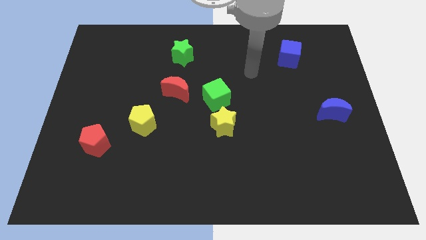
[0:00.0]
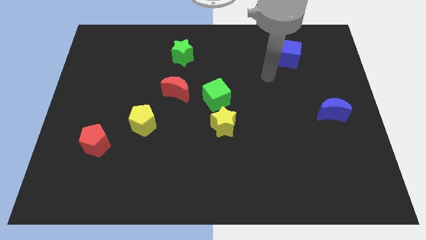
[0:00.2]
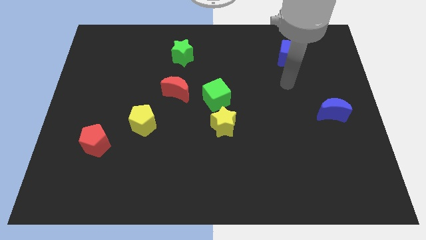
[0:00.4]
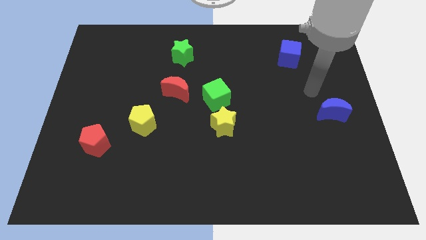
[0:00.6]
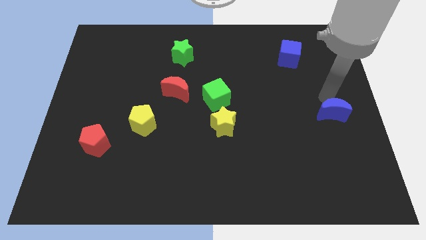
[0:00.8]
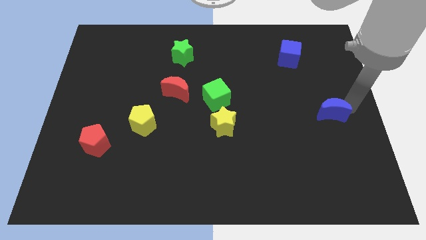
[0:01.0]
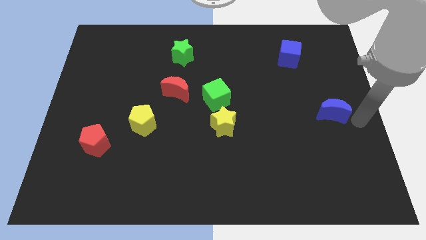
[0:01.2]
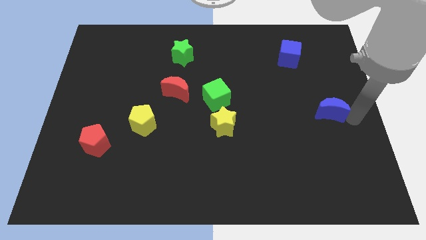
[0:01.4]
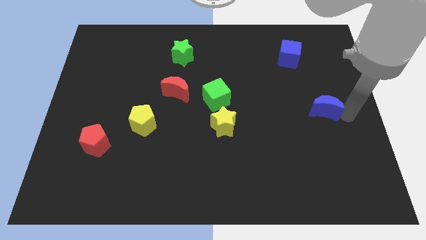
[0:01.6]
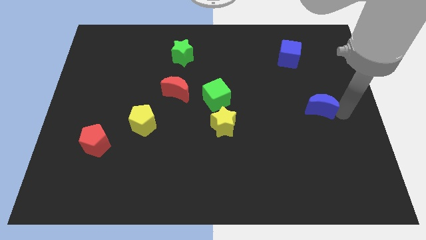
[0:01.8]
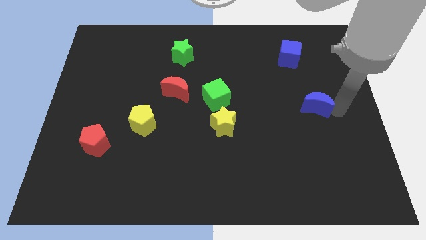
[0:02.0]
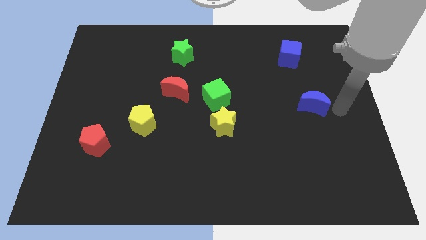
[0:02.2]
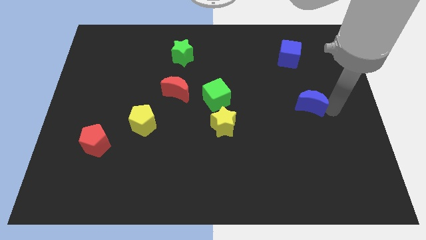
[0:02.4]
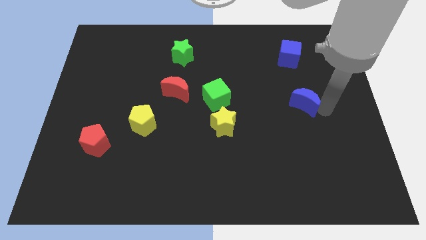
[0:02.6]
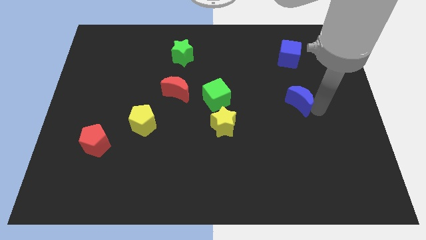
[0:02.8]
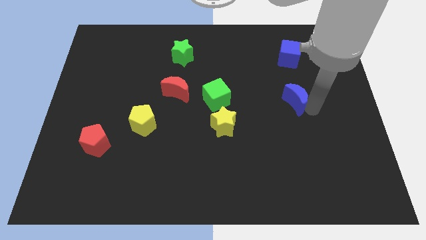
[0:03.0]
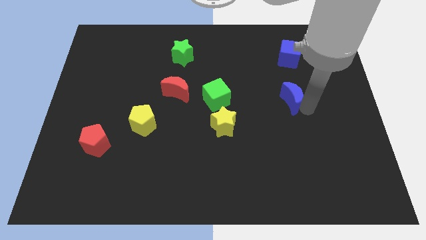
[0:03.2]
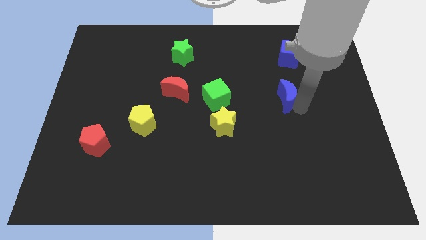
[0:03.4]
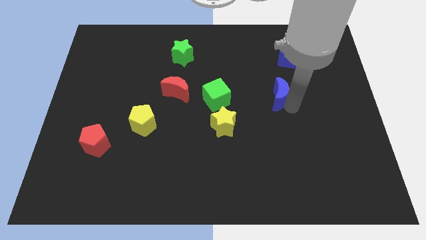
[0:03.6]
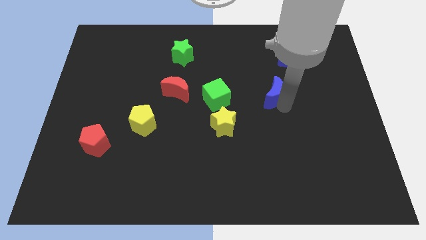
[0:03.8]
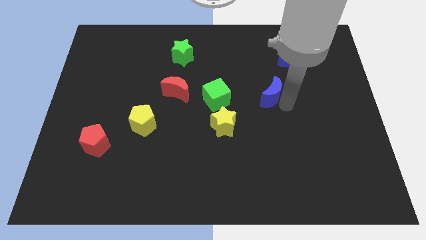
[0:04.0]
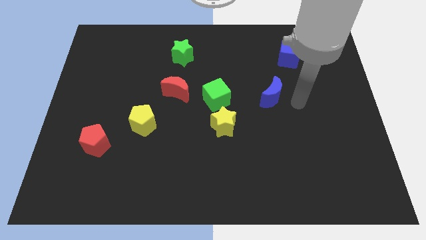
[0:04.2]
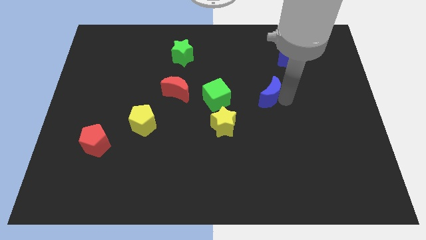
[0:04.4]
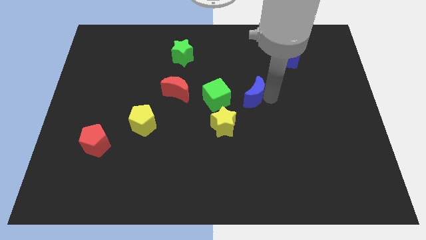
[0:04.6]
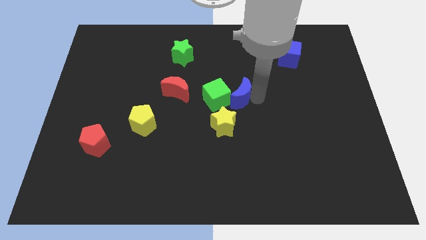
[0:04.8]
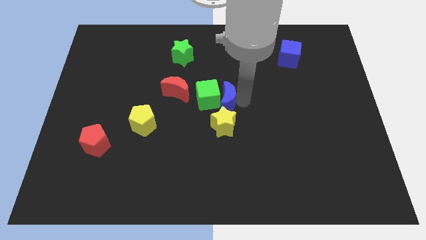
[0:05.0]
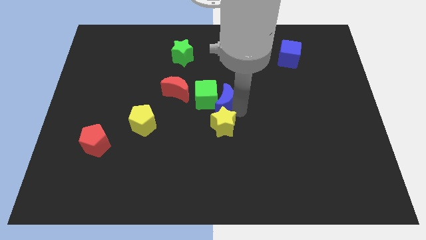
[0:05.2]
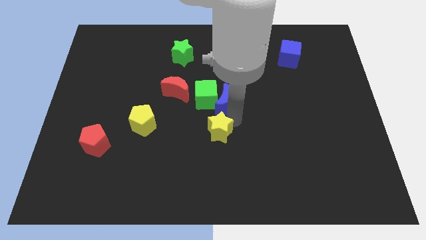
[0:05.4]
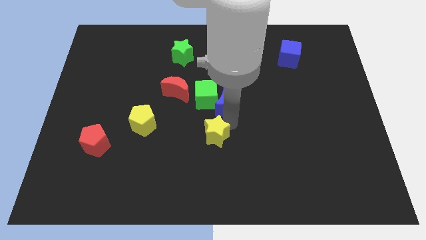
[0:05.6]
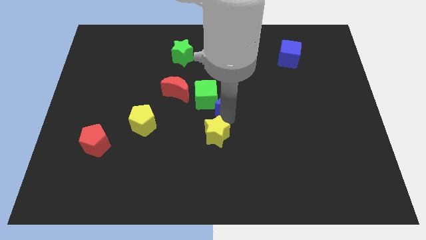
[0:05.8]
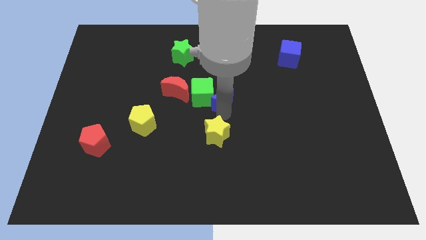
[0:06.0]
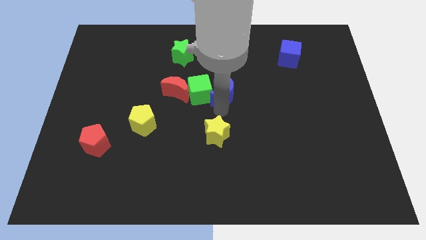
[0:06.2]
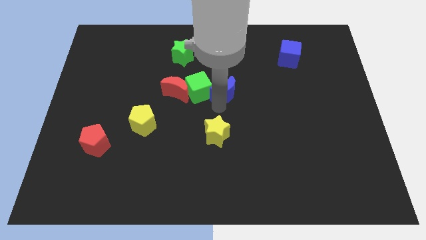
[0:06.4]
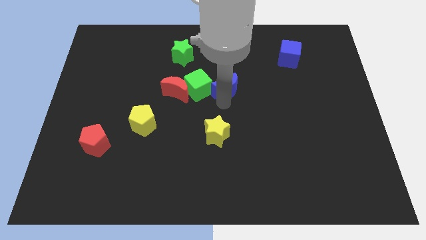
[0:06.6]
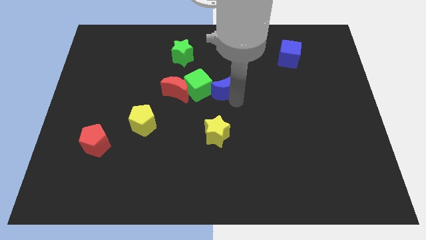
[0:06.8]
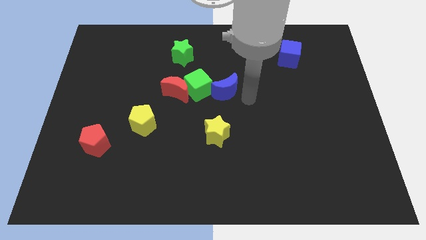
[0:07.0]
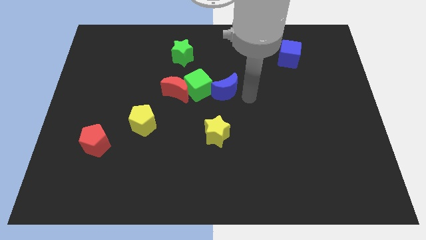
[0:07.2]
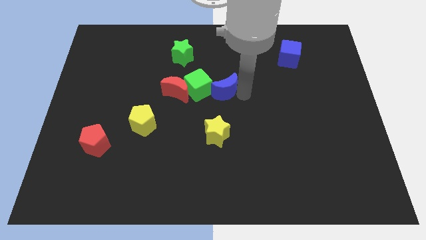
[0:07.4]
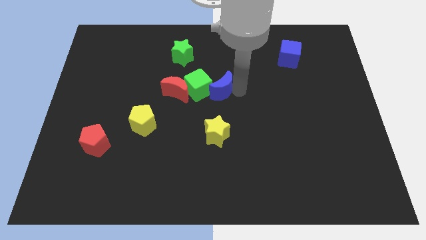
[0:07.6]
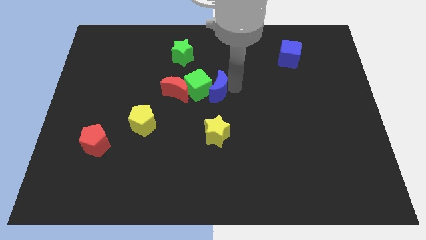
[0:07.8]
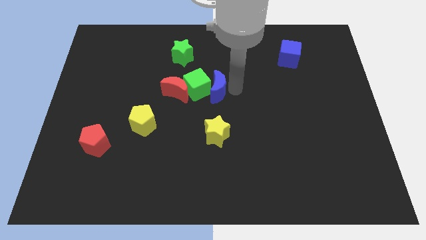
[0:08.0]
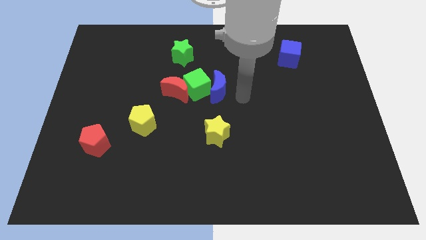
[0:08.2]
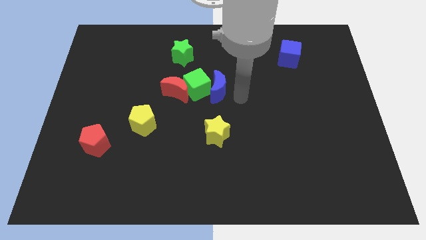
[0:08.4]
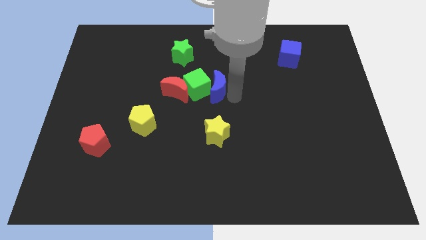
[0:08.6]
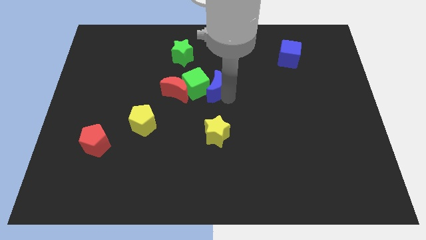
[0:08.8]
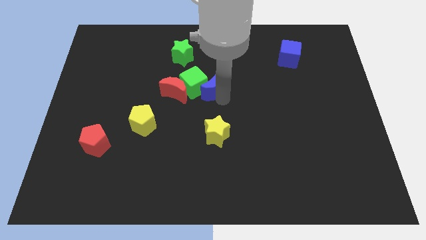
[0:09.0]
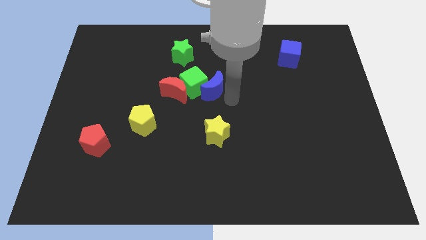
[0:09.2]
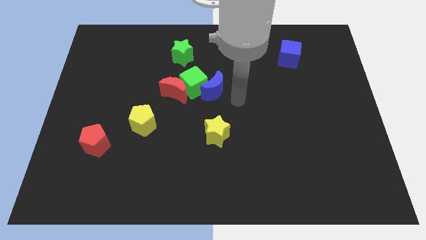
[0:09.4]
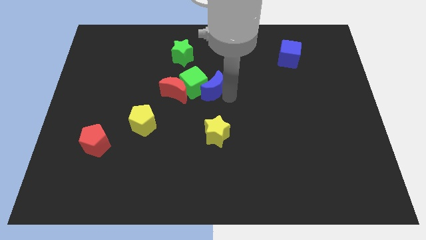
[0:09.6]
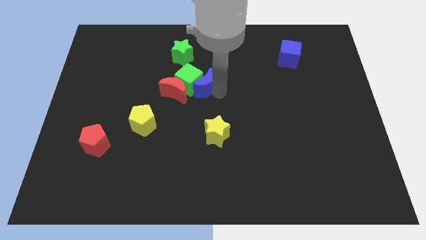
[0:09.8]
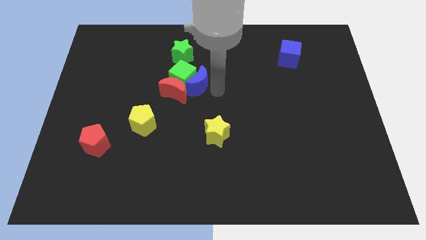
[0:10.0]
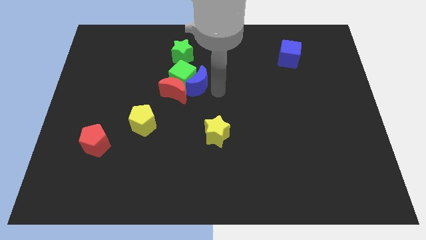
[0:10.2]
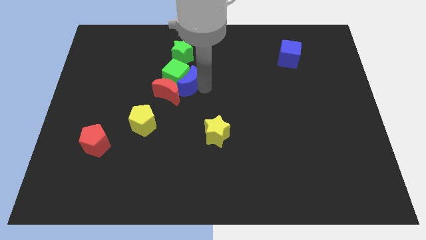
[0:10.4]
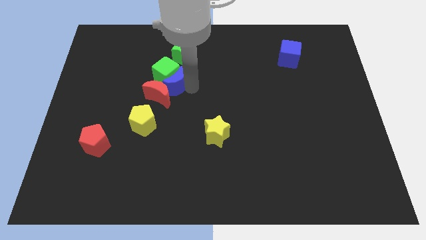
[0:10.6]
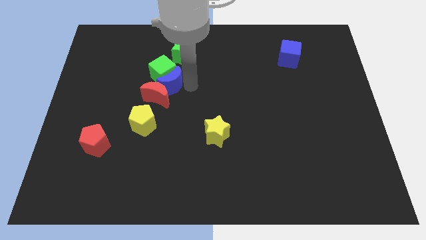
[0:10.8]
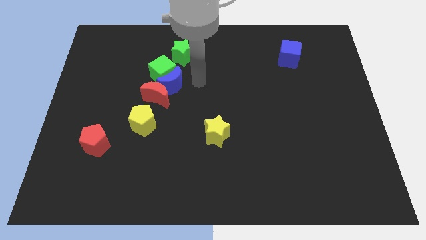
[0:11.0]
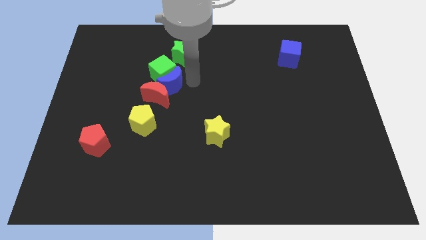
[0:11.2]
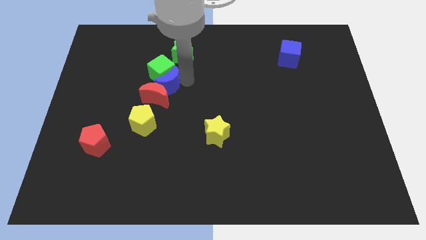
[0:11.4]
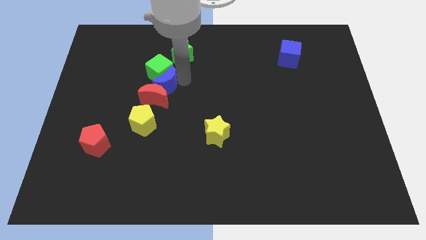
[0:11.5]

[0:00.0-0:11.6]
push the blue moon to the top side of the yellow pentagon

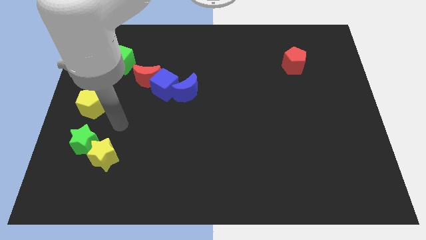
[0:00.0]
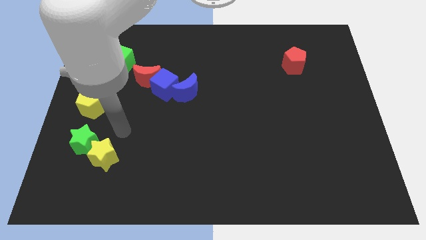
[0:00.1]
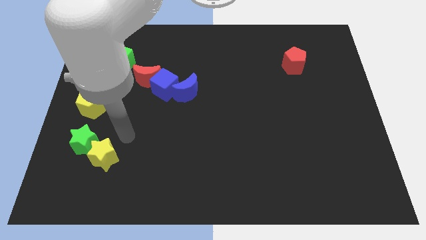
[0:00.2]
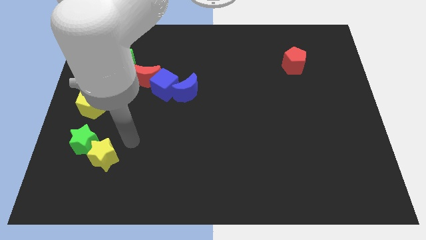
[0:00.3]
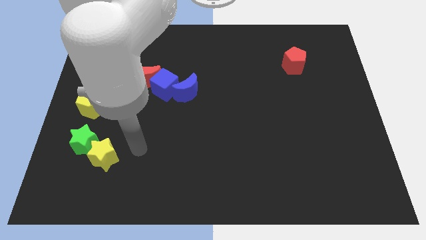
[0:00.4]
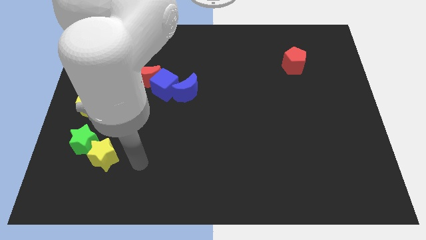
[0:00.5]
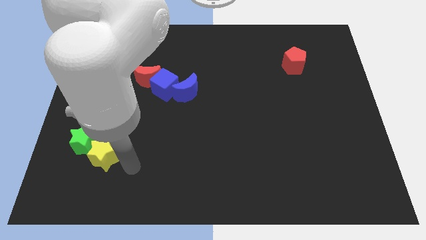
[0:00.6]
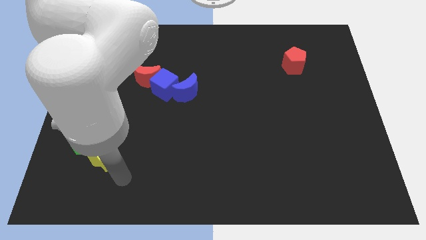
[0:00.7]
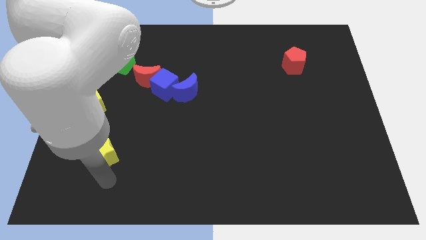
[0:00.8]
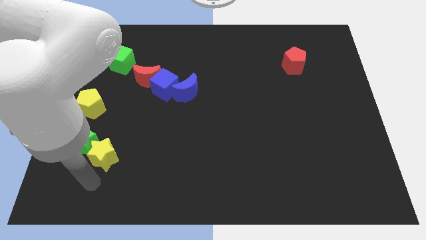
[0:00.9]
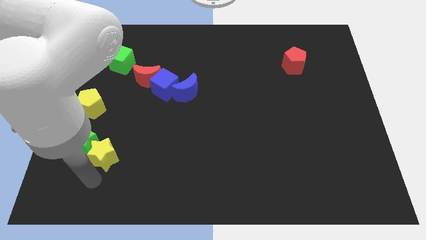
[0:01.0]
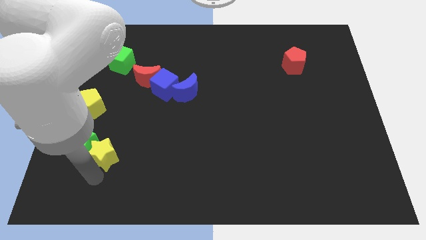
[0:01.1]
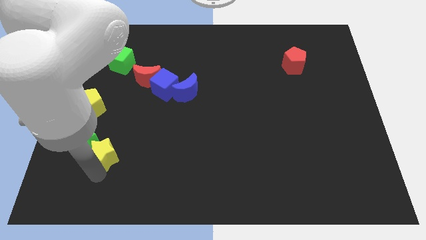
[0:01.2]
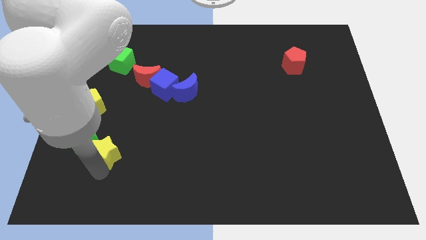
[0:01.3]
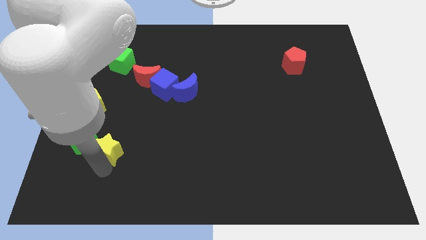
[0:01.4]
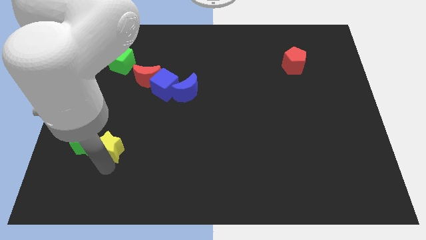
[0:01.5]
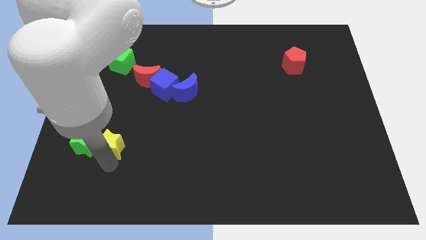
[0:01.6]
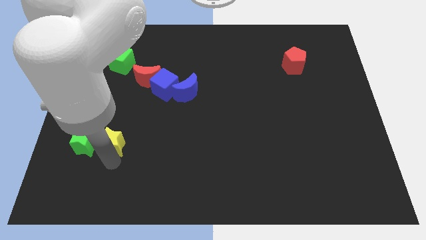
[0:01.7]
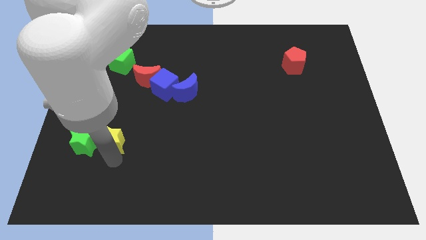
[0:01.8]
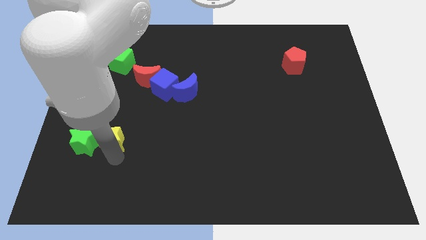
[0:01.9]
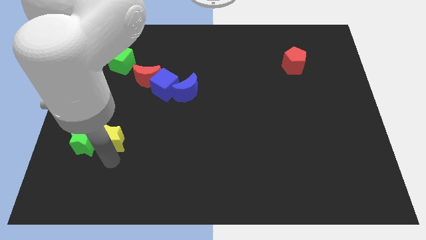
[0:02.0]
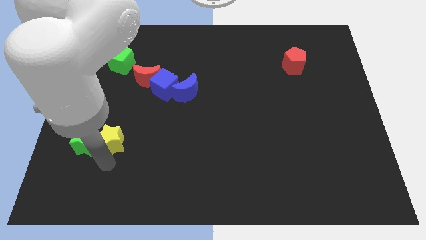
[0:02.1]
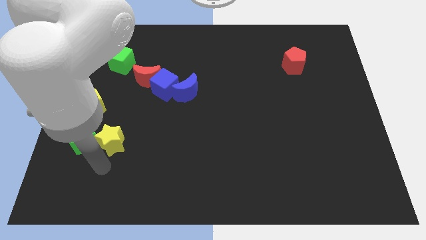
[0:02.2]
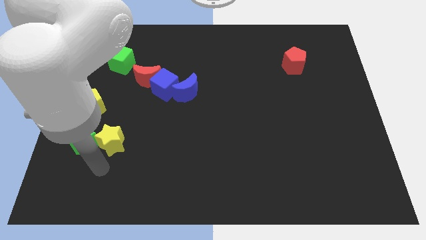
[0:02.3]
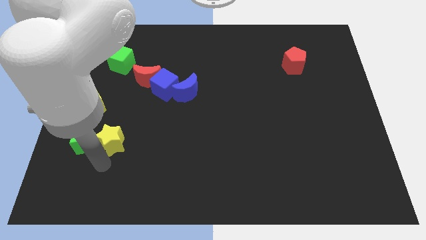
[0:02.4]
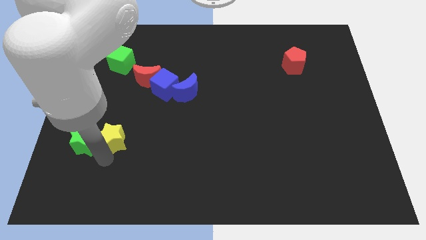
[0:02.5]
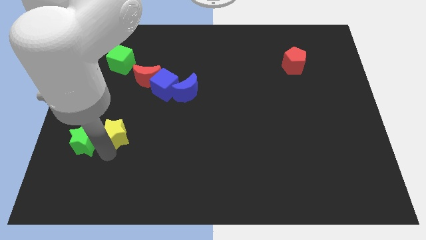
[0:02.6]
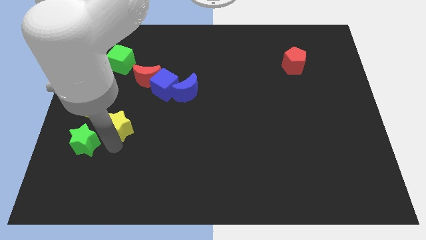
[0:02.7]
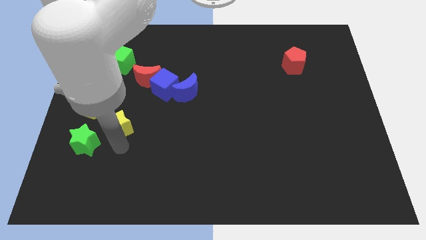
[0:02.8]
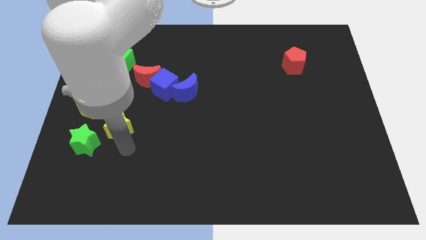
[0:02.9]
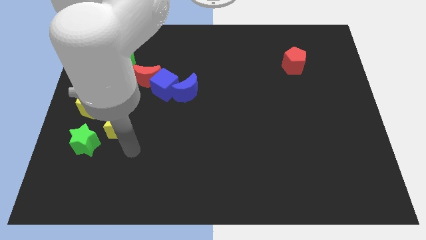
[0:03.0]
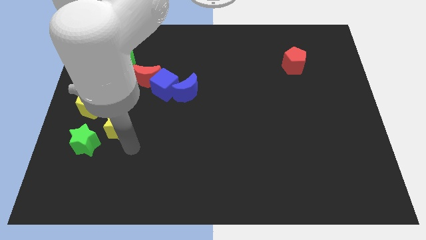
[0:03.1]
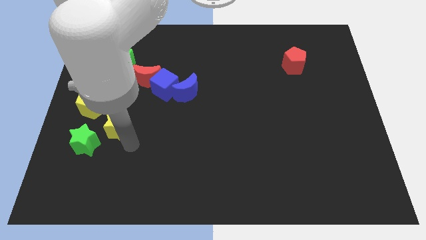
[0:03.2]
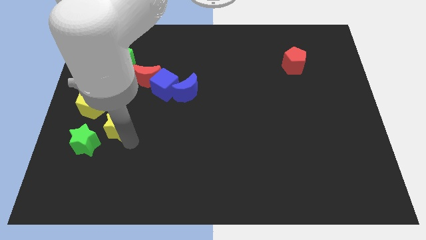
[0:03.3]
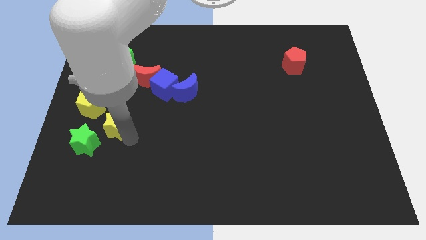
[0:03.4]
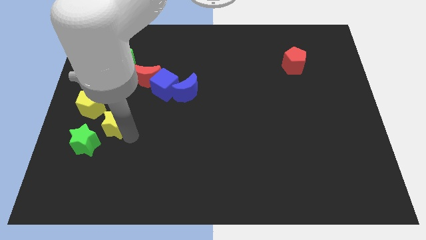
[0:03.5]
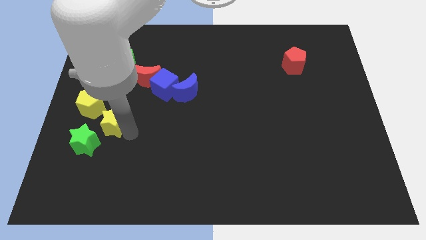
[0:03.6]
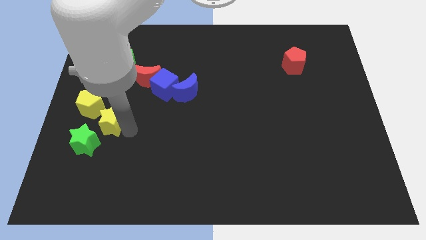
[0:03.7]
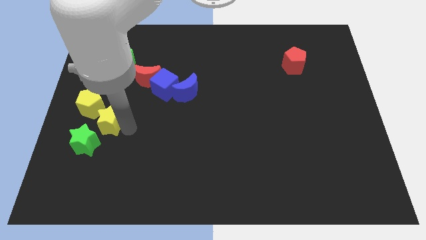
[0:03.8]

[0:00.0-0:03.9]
push the yellow star to the top of the green star
